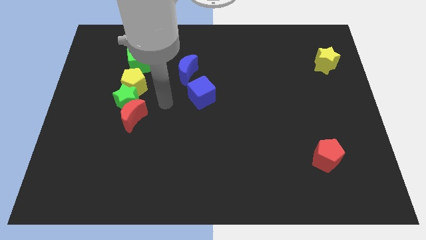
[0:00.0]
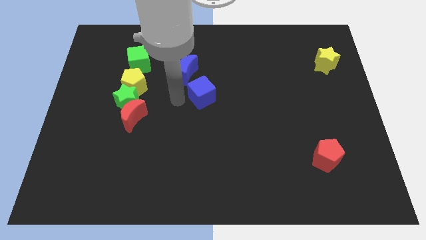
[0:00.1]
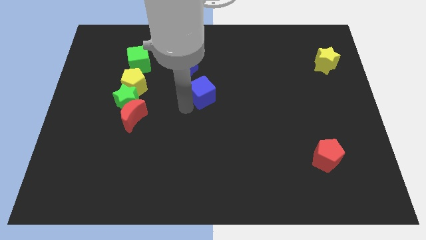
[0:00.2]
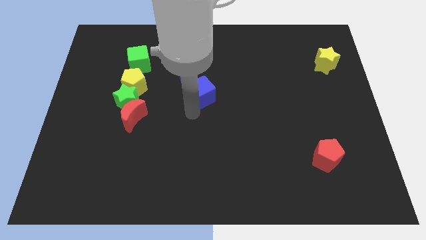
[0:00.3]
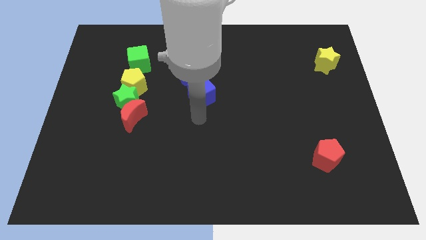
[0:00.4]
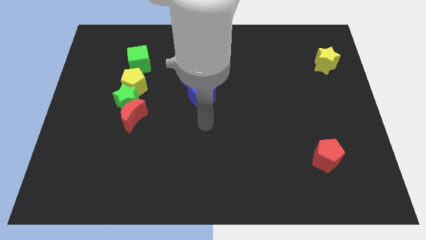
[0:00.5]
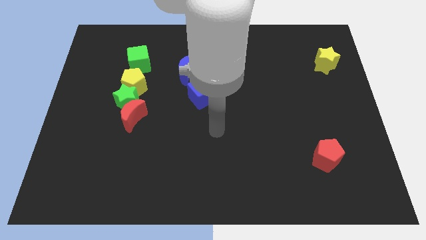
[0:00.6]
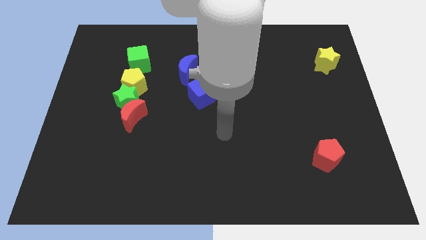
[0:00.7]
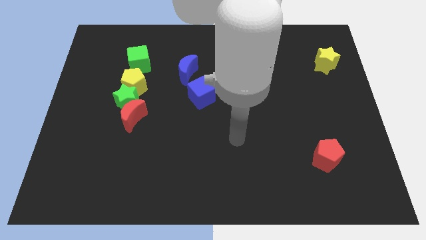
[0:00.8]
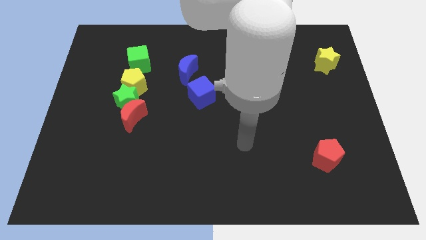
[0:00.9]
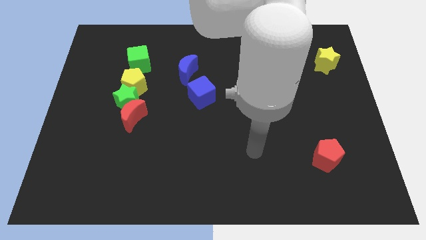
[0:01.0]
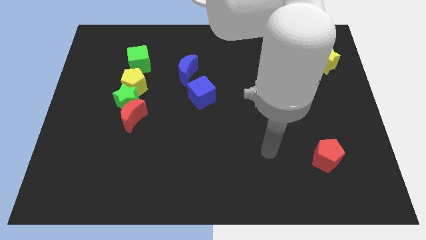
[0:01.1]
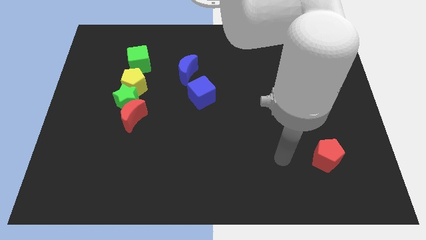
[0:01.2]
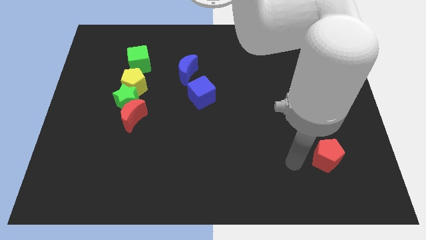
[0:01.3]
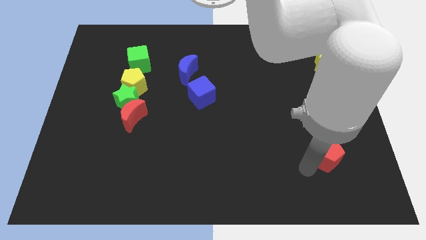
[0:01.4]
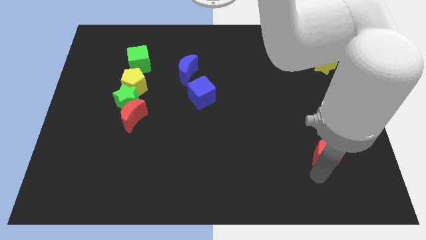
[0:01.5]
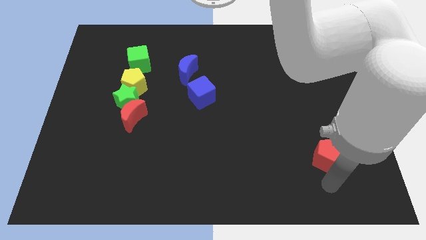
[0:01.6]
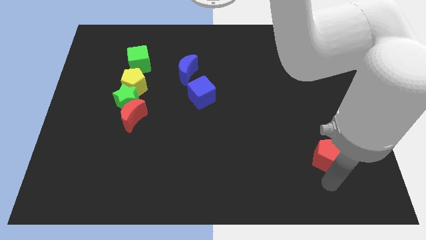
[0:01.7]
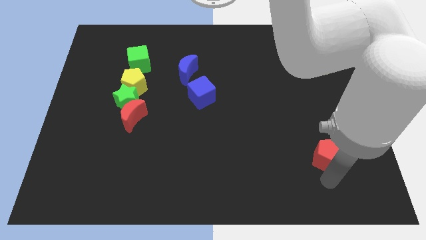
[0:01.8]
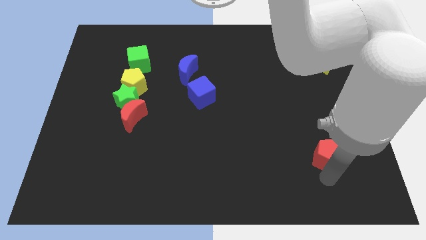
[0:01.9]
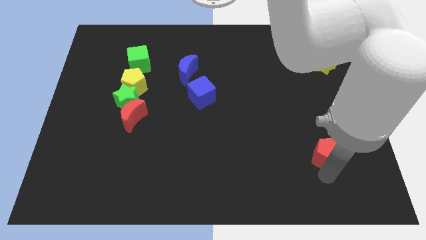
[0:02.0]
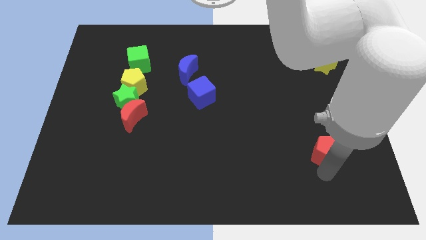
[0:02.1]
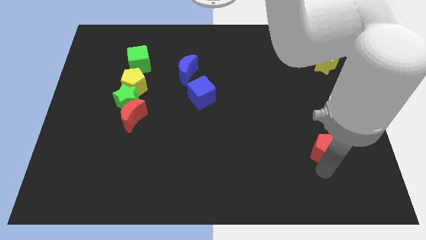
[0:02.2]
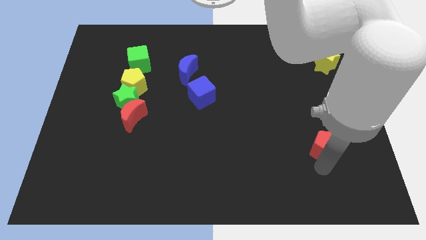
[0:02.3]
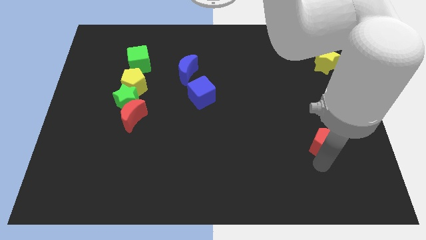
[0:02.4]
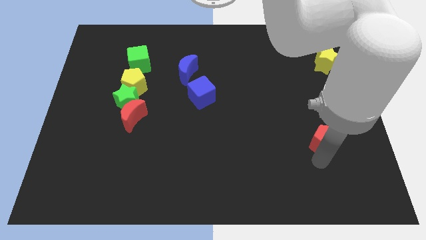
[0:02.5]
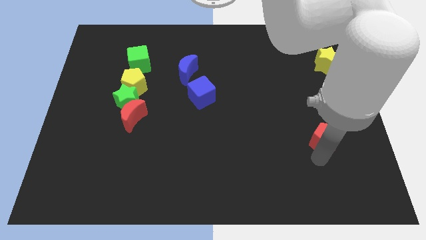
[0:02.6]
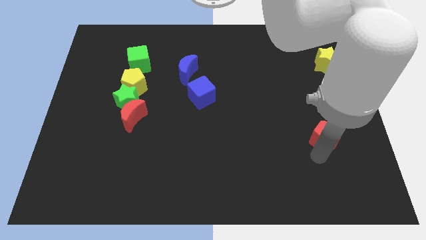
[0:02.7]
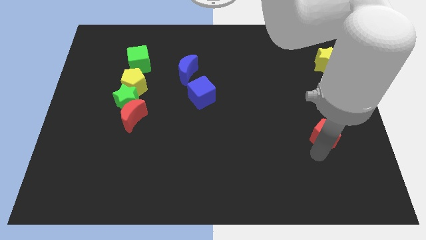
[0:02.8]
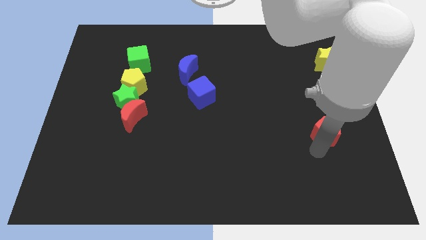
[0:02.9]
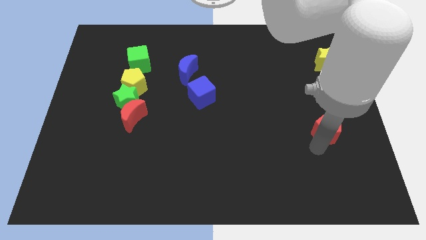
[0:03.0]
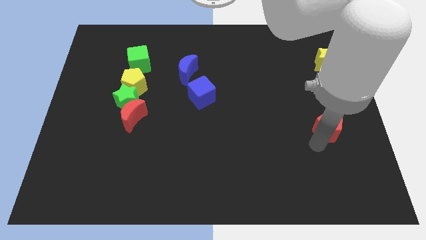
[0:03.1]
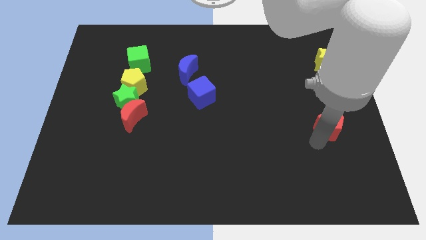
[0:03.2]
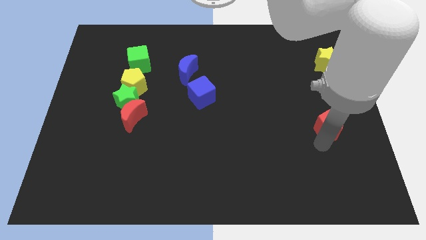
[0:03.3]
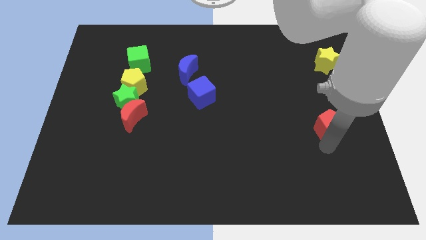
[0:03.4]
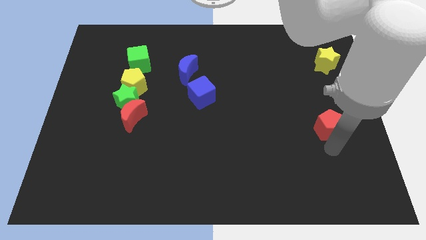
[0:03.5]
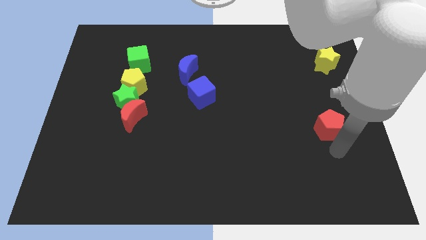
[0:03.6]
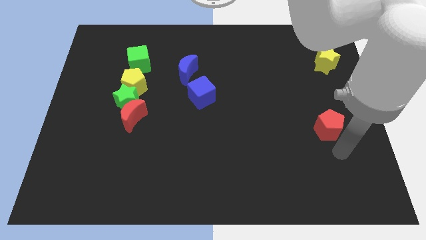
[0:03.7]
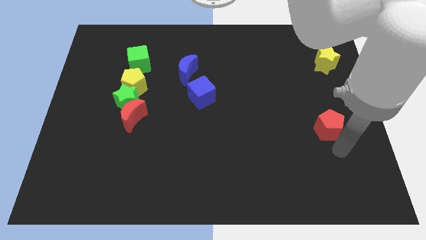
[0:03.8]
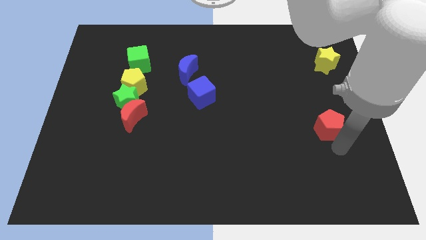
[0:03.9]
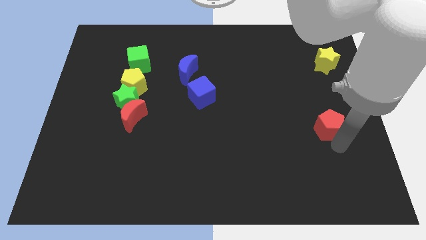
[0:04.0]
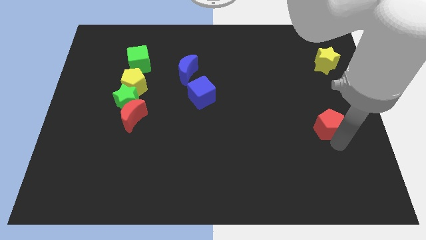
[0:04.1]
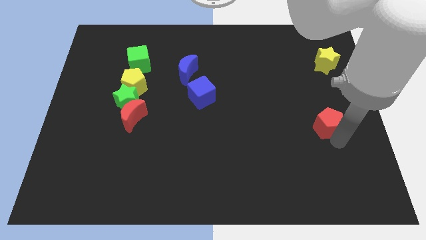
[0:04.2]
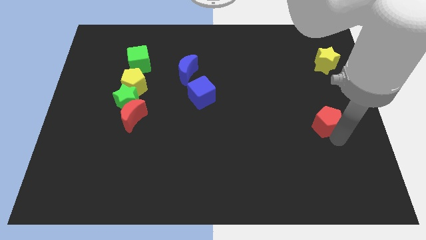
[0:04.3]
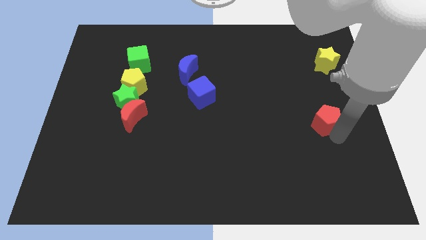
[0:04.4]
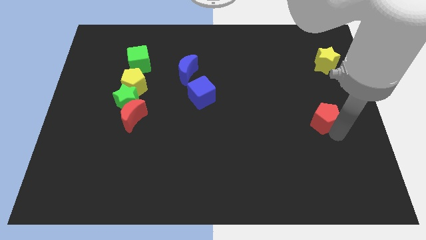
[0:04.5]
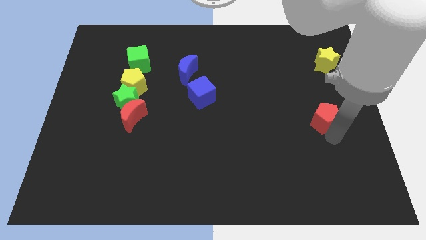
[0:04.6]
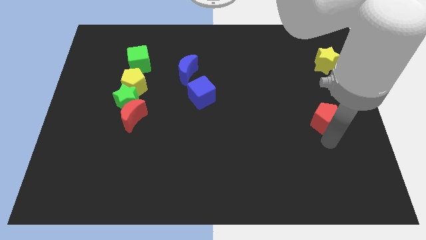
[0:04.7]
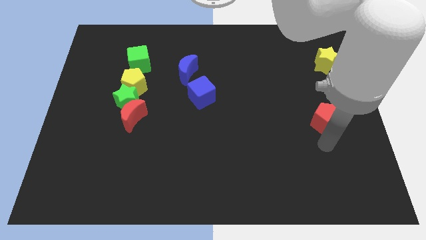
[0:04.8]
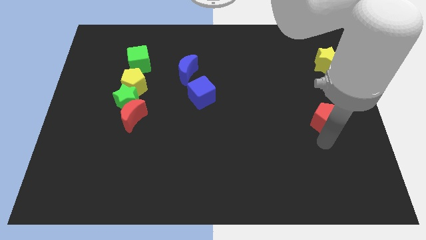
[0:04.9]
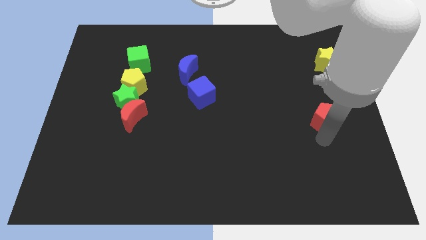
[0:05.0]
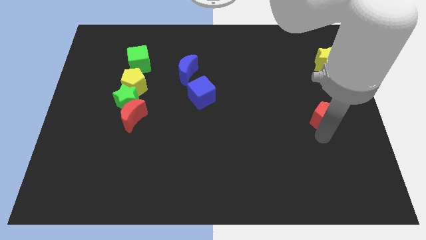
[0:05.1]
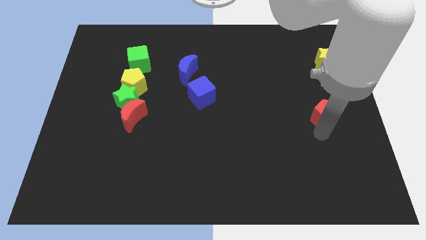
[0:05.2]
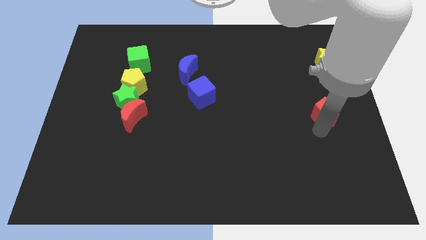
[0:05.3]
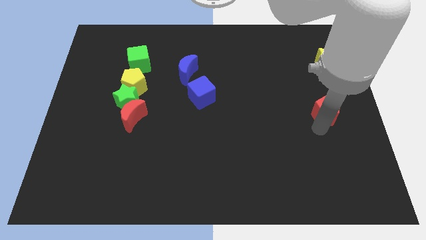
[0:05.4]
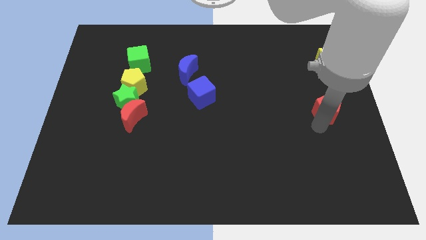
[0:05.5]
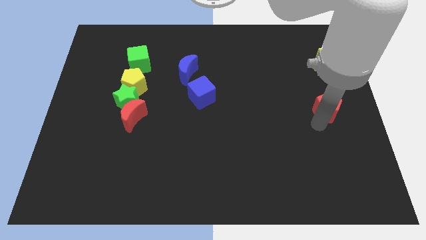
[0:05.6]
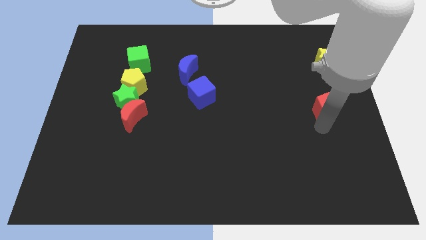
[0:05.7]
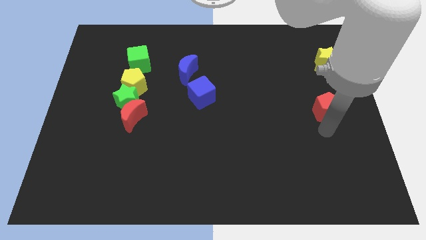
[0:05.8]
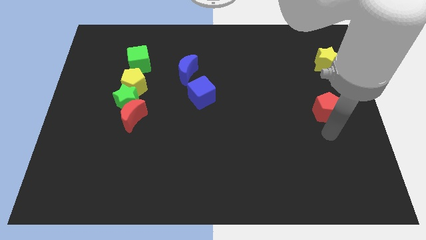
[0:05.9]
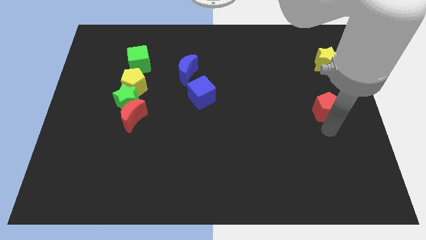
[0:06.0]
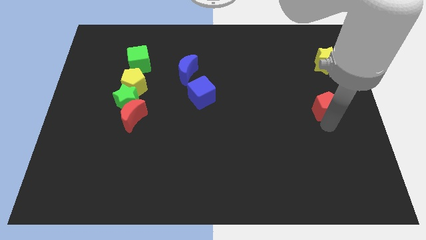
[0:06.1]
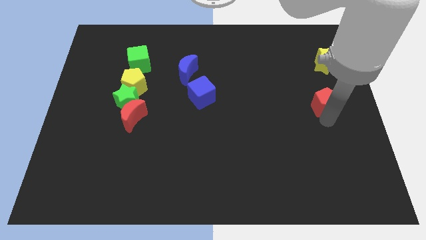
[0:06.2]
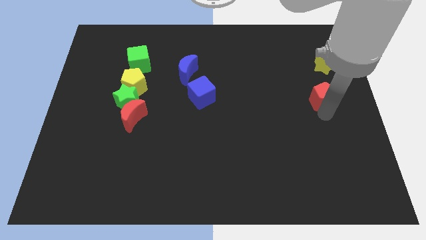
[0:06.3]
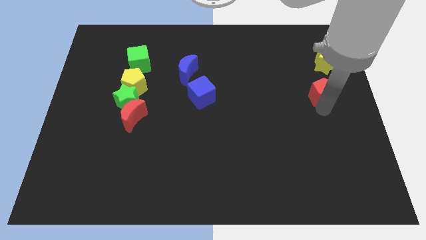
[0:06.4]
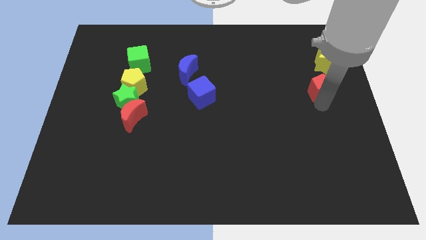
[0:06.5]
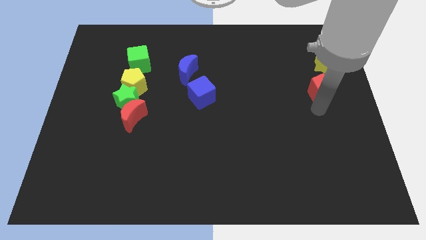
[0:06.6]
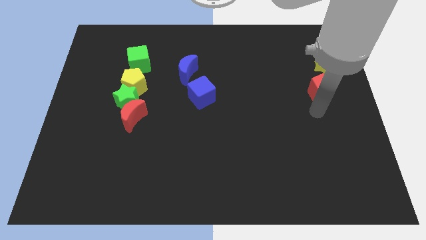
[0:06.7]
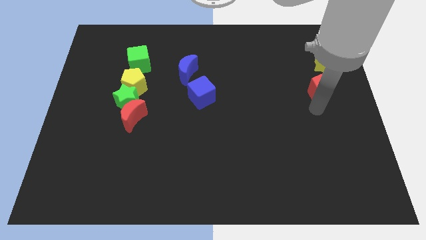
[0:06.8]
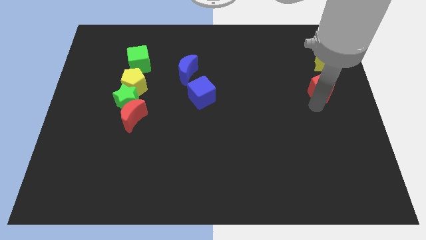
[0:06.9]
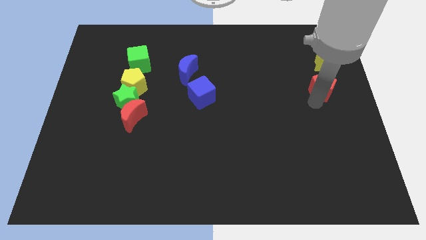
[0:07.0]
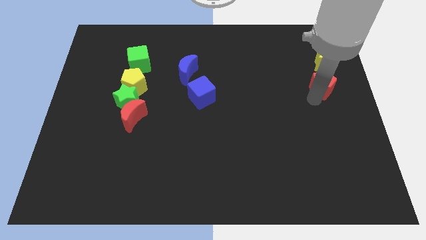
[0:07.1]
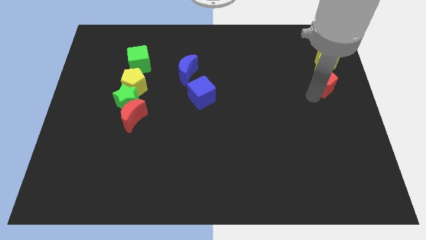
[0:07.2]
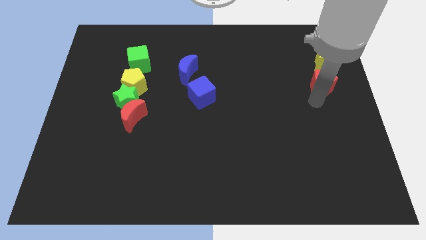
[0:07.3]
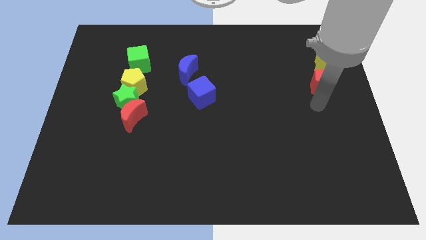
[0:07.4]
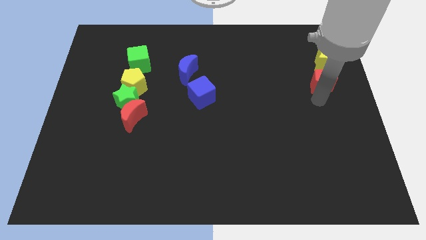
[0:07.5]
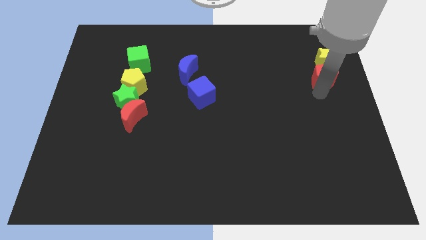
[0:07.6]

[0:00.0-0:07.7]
put the red pentagon close to the yellow star

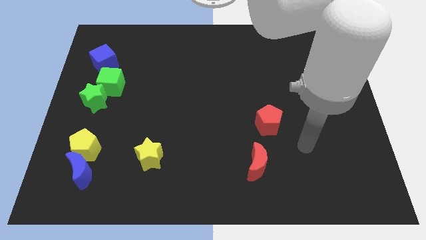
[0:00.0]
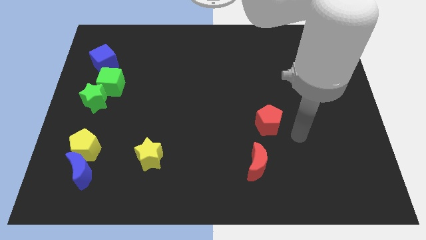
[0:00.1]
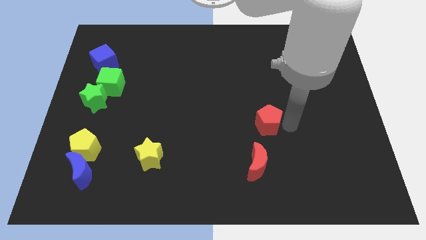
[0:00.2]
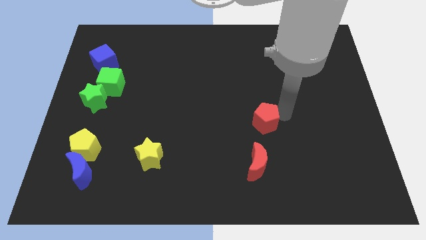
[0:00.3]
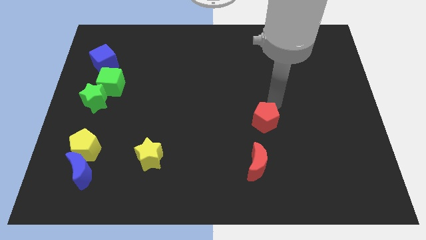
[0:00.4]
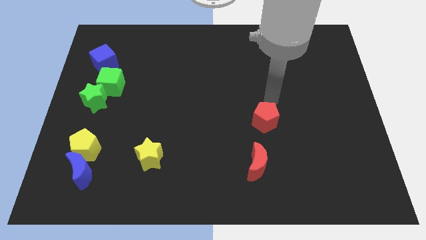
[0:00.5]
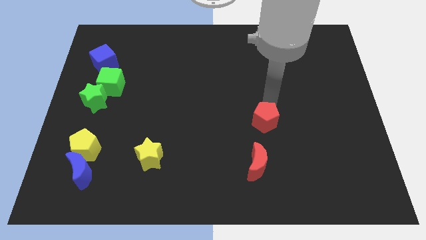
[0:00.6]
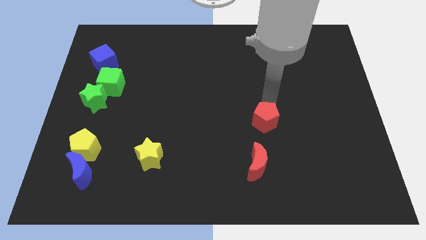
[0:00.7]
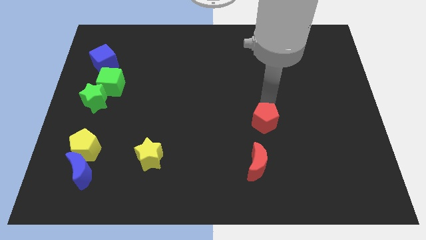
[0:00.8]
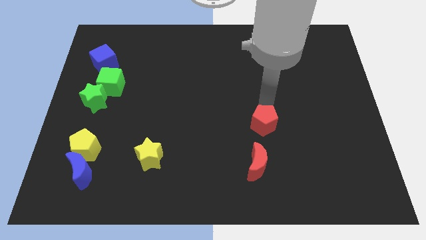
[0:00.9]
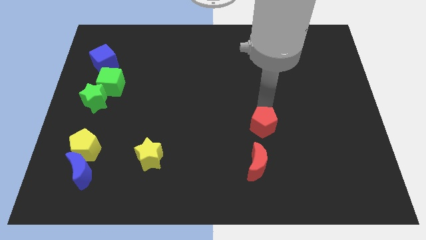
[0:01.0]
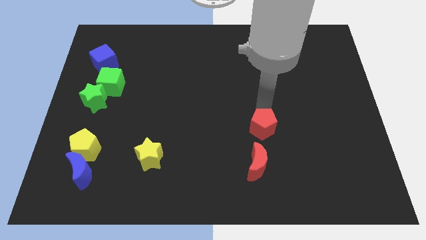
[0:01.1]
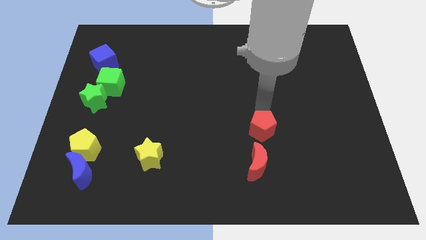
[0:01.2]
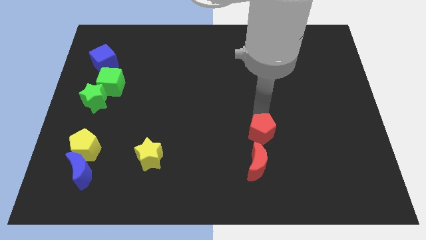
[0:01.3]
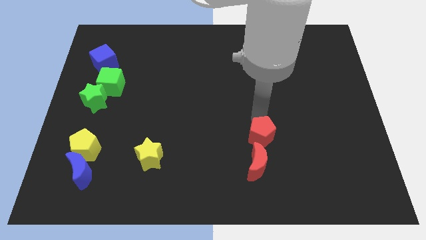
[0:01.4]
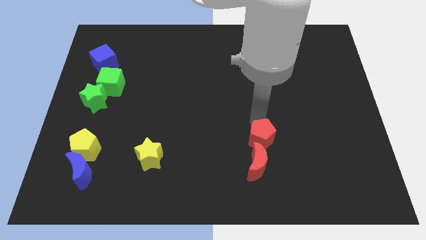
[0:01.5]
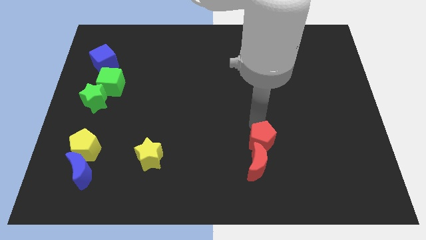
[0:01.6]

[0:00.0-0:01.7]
put the red pentagon close to the red moon
